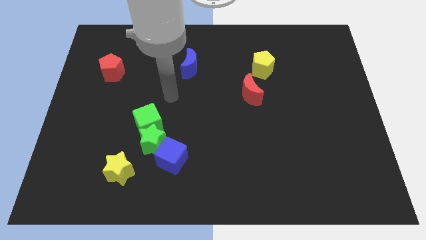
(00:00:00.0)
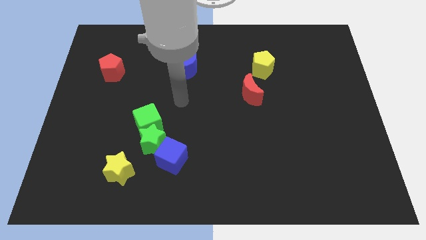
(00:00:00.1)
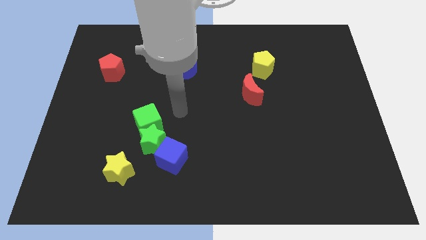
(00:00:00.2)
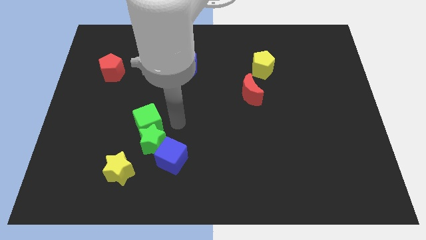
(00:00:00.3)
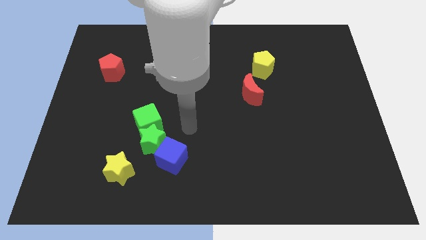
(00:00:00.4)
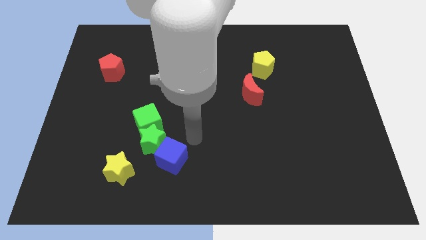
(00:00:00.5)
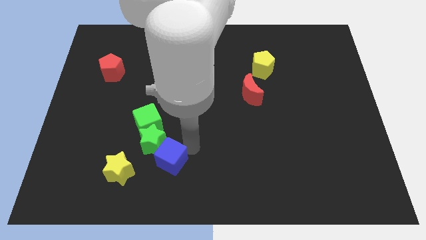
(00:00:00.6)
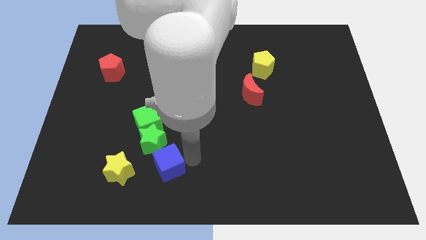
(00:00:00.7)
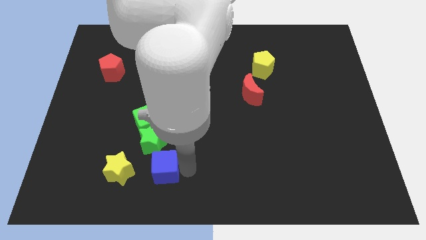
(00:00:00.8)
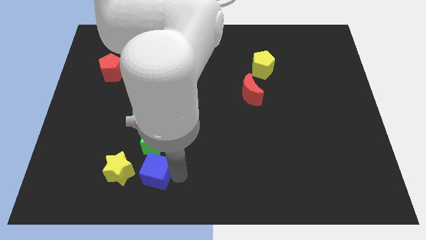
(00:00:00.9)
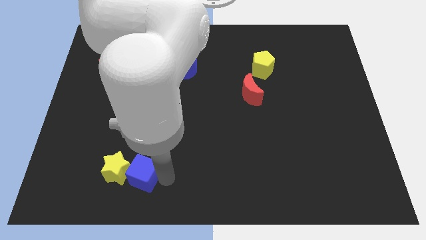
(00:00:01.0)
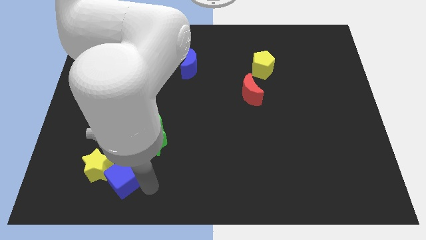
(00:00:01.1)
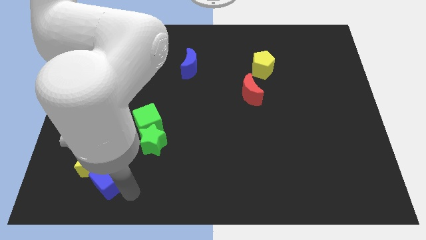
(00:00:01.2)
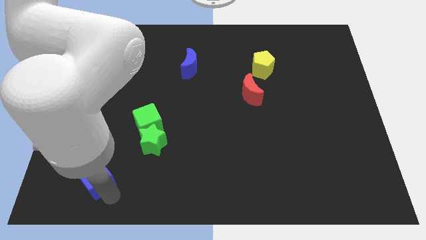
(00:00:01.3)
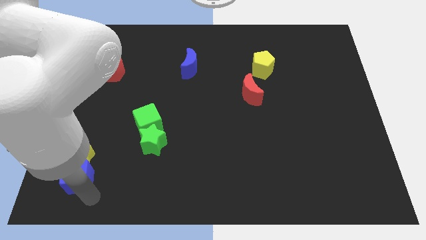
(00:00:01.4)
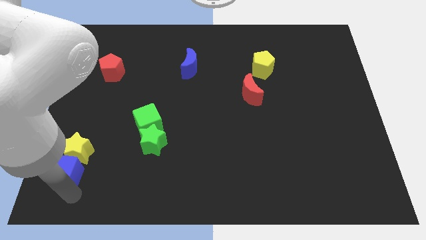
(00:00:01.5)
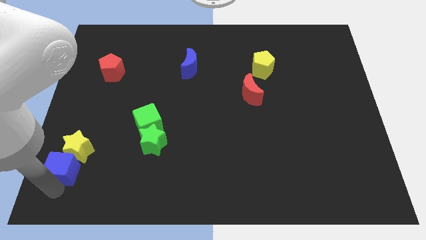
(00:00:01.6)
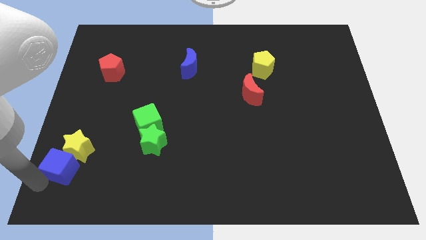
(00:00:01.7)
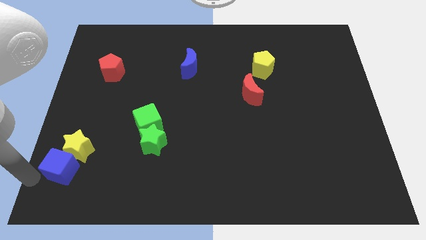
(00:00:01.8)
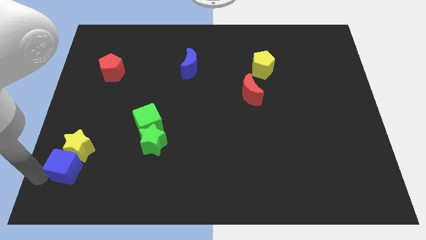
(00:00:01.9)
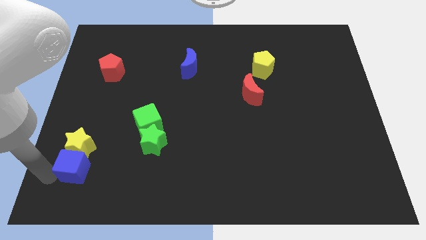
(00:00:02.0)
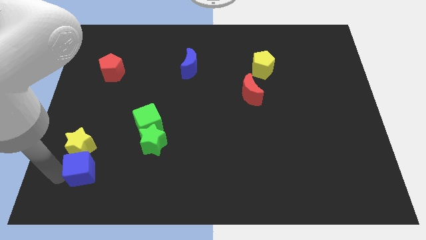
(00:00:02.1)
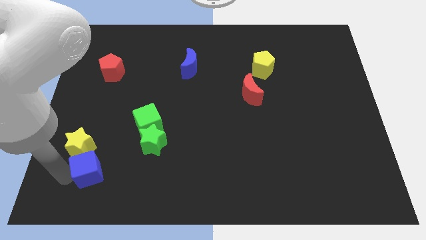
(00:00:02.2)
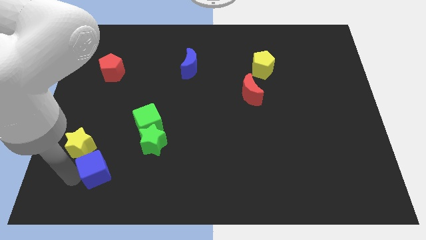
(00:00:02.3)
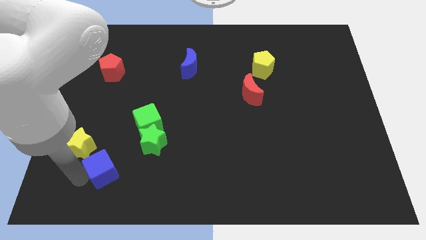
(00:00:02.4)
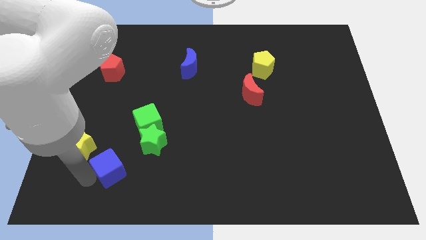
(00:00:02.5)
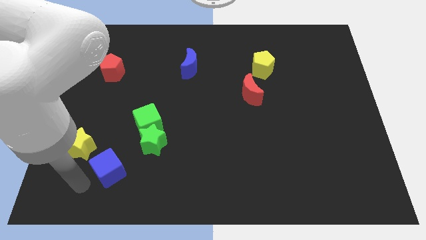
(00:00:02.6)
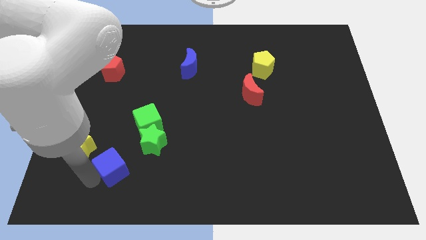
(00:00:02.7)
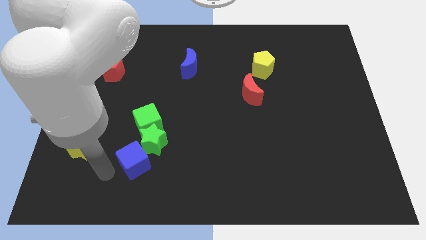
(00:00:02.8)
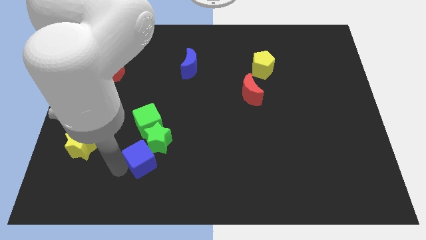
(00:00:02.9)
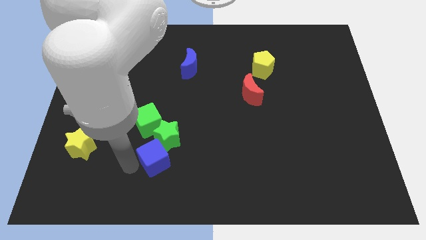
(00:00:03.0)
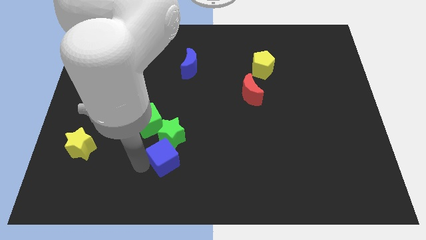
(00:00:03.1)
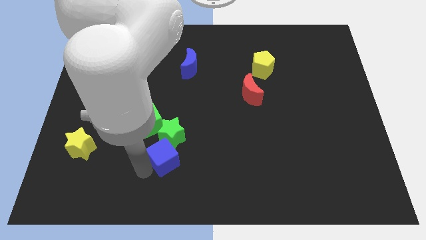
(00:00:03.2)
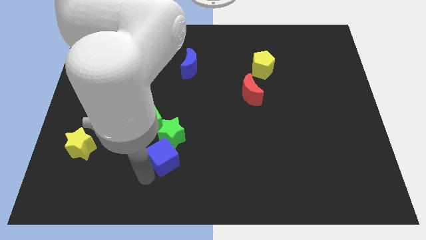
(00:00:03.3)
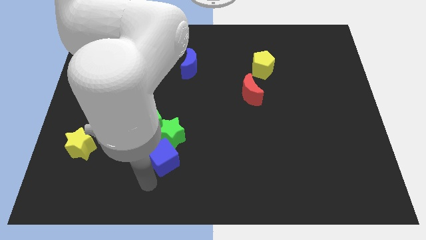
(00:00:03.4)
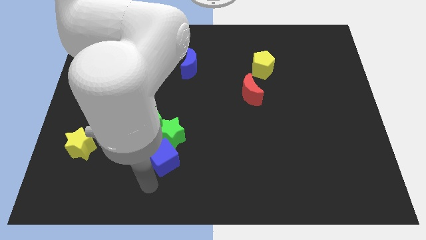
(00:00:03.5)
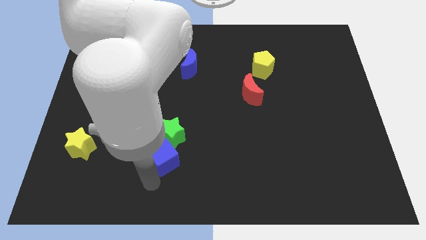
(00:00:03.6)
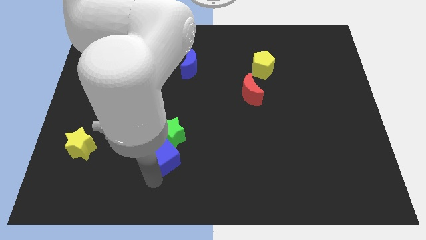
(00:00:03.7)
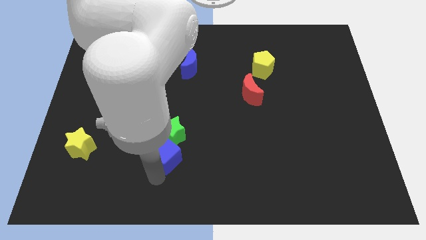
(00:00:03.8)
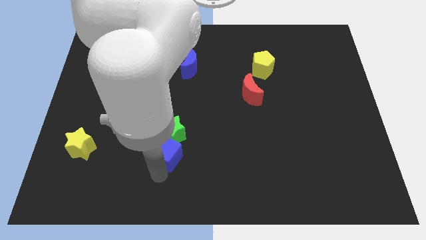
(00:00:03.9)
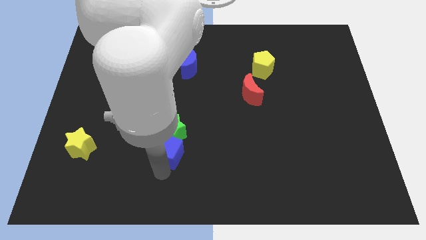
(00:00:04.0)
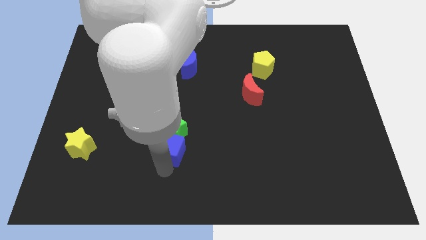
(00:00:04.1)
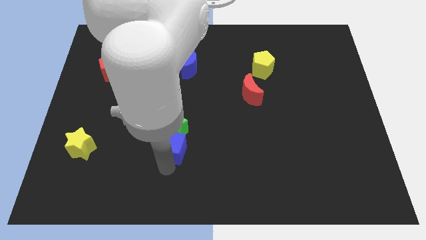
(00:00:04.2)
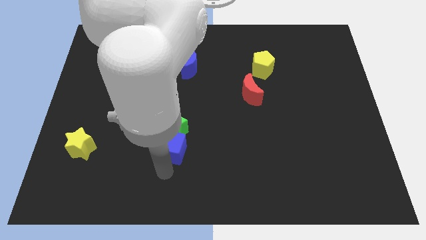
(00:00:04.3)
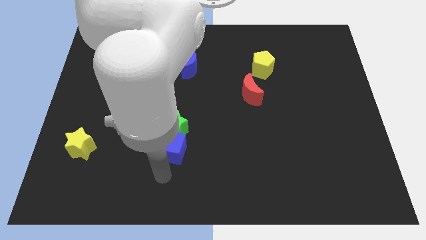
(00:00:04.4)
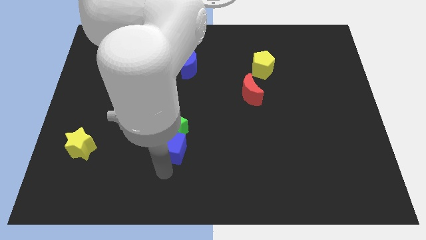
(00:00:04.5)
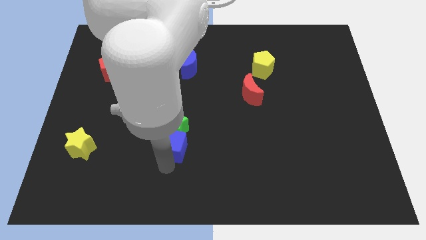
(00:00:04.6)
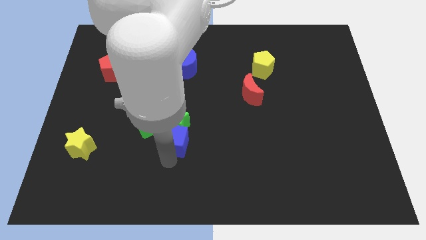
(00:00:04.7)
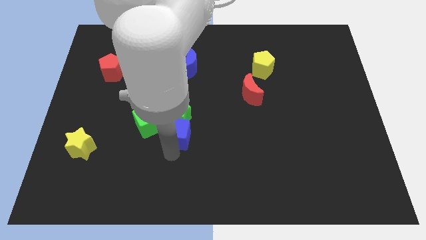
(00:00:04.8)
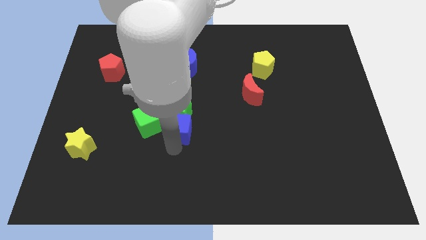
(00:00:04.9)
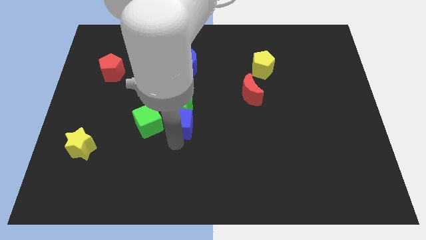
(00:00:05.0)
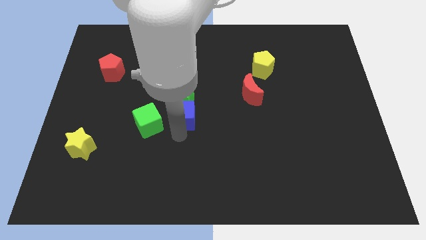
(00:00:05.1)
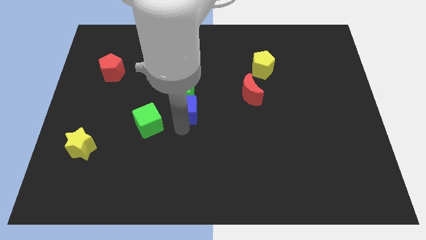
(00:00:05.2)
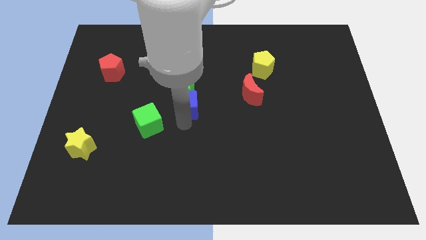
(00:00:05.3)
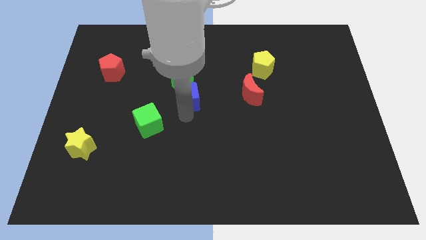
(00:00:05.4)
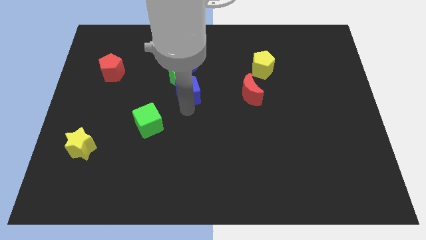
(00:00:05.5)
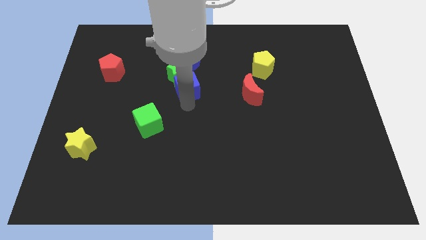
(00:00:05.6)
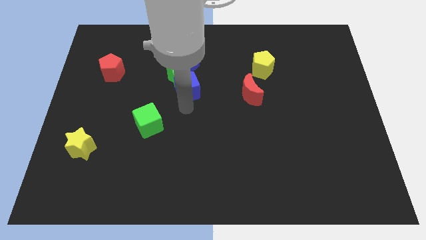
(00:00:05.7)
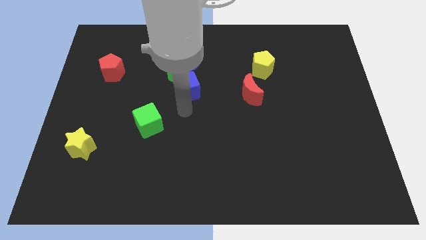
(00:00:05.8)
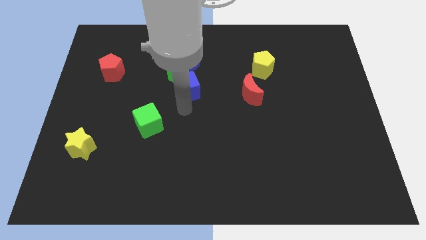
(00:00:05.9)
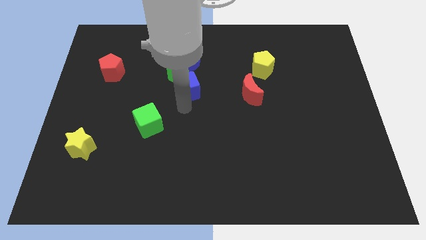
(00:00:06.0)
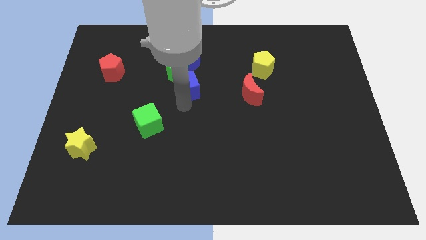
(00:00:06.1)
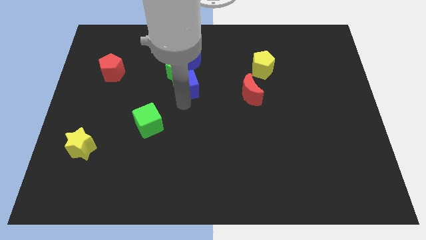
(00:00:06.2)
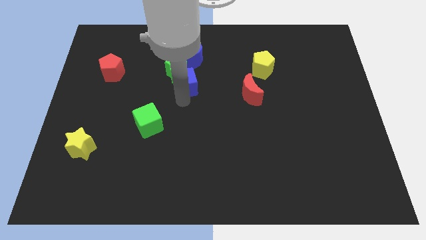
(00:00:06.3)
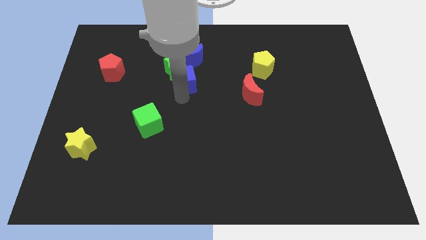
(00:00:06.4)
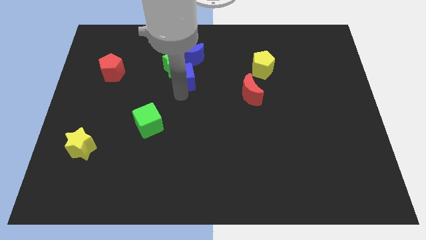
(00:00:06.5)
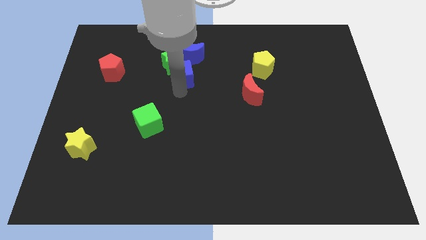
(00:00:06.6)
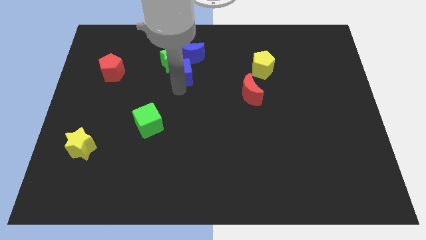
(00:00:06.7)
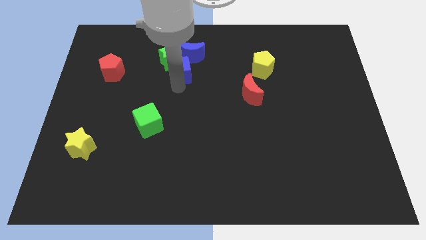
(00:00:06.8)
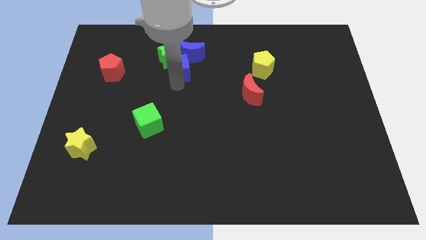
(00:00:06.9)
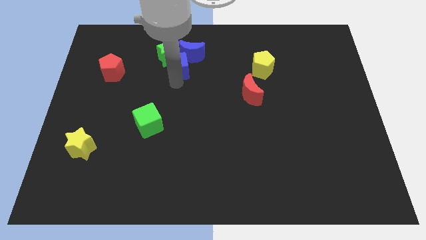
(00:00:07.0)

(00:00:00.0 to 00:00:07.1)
slide the blue cube to the blue moon
